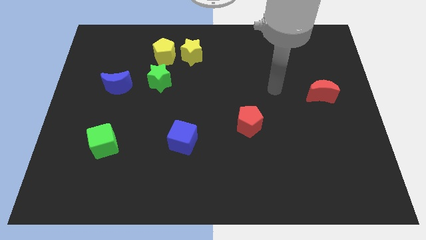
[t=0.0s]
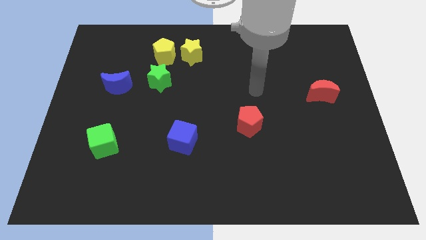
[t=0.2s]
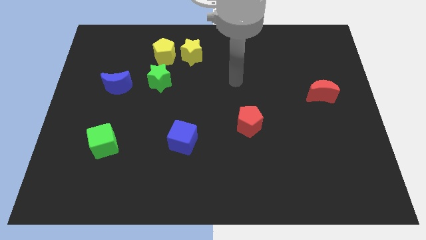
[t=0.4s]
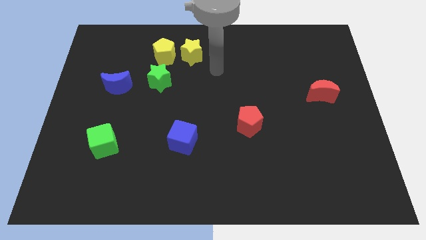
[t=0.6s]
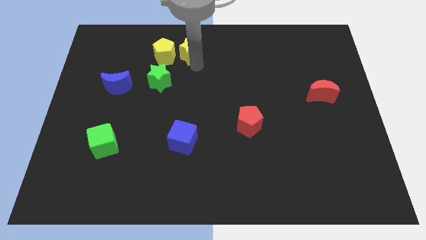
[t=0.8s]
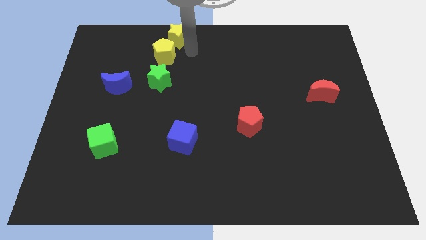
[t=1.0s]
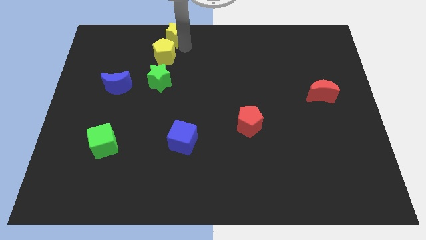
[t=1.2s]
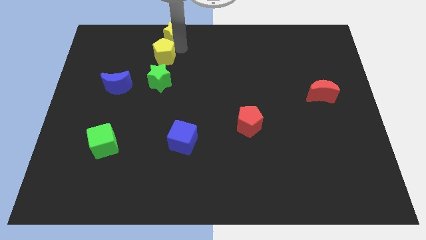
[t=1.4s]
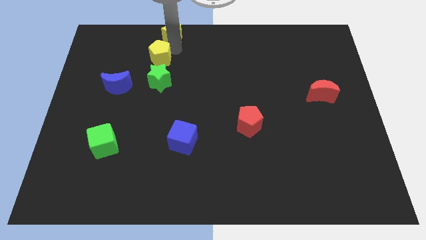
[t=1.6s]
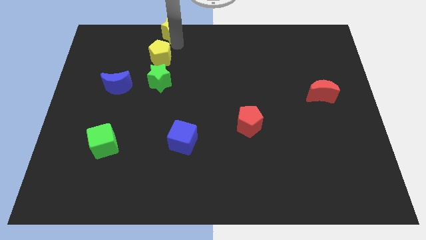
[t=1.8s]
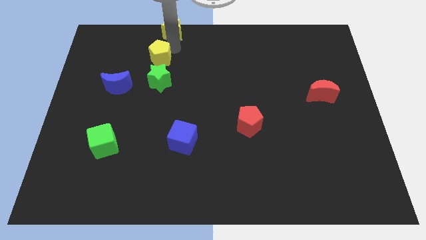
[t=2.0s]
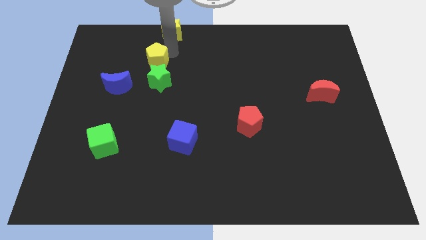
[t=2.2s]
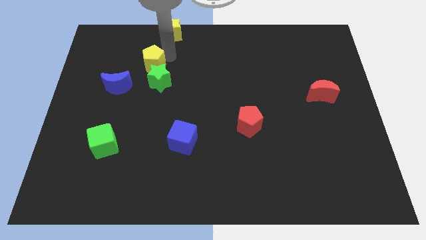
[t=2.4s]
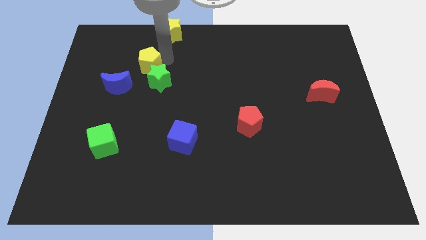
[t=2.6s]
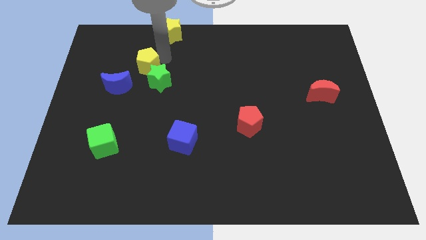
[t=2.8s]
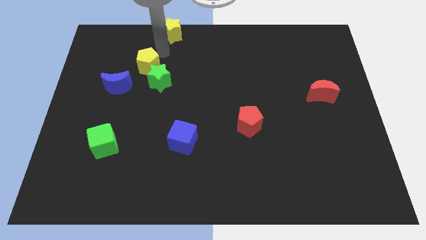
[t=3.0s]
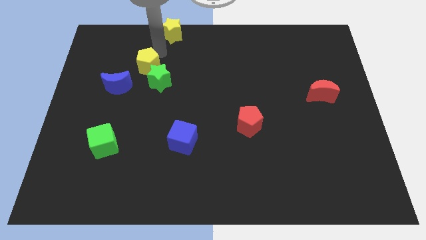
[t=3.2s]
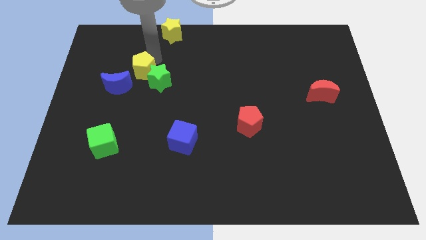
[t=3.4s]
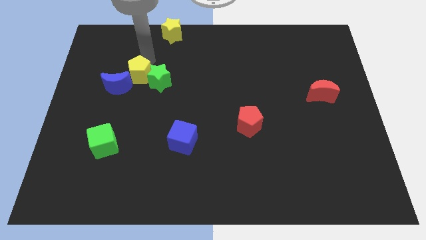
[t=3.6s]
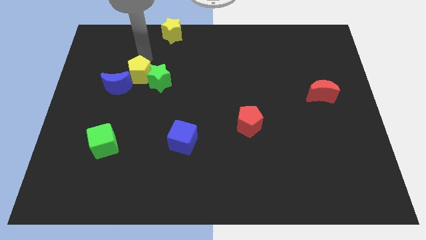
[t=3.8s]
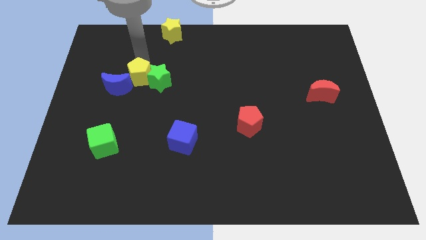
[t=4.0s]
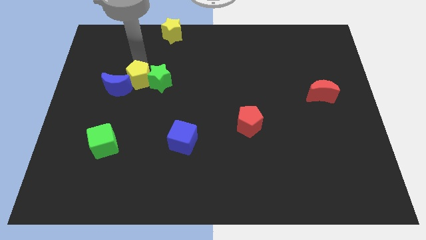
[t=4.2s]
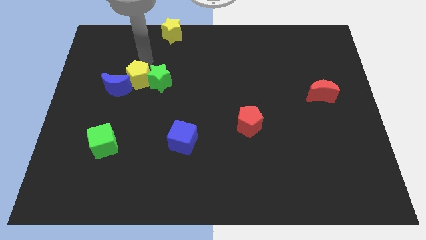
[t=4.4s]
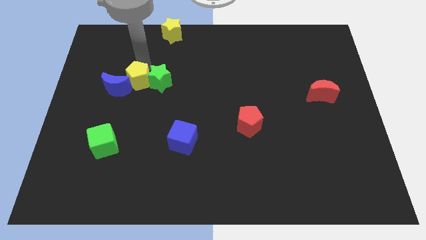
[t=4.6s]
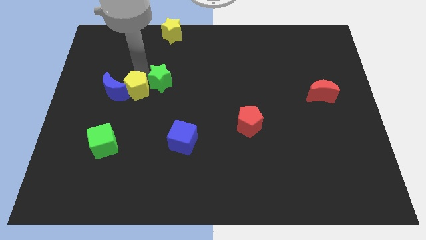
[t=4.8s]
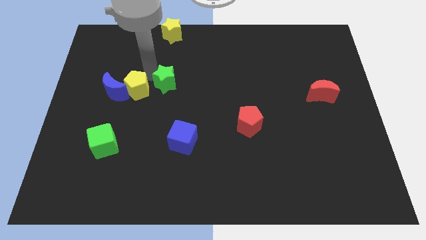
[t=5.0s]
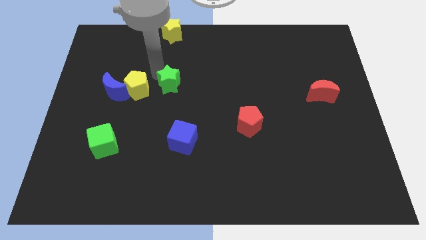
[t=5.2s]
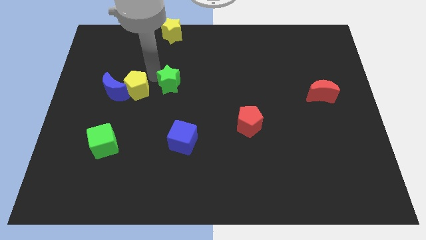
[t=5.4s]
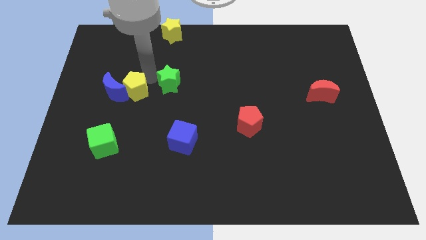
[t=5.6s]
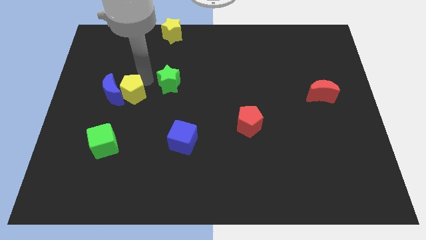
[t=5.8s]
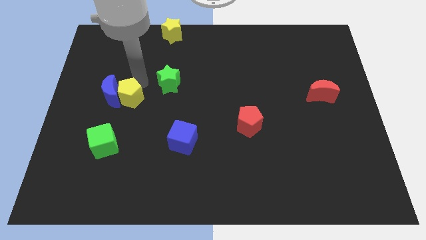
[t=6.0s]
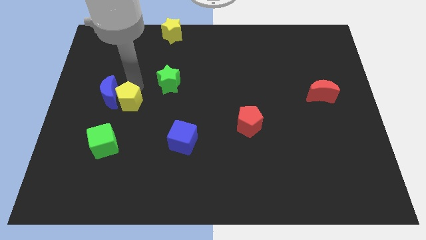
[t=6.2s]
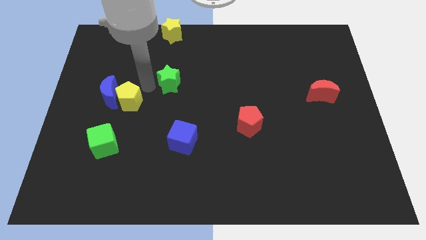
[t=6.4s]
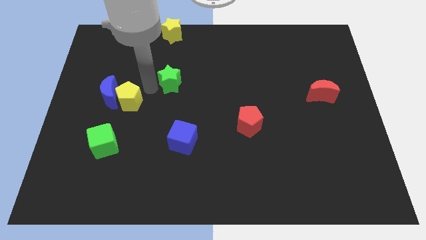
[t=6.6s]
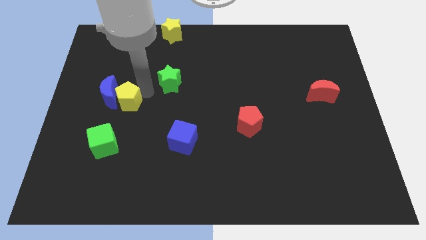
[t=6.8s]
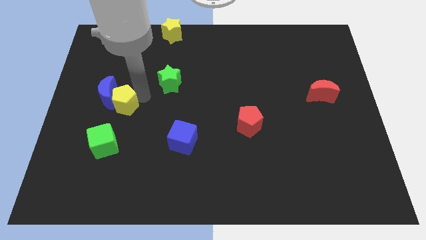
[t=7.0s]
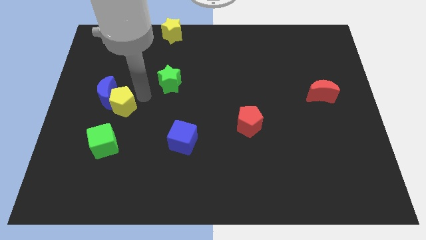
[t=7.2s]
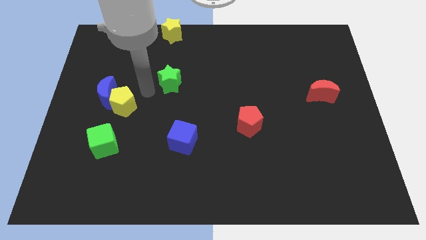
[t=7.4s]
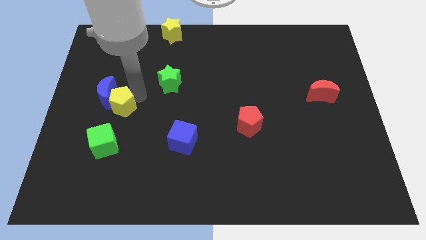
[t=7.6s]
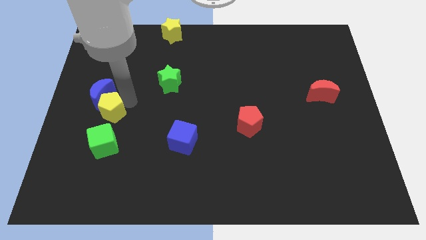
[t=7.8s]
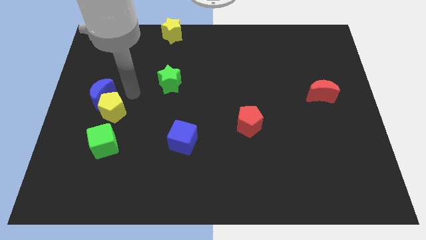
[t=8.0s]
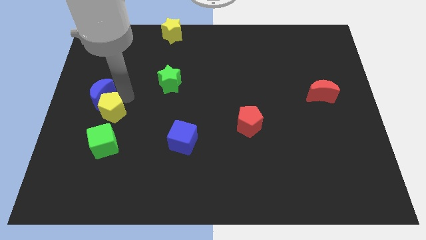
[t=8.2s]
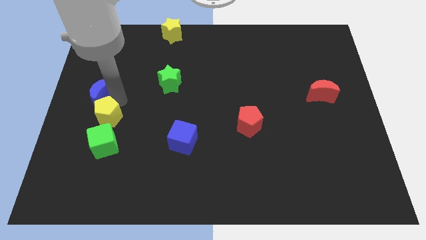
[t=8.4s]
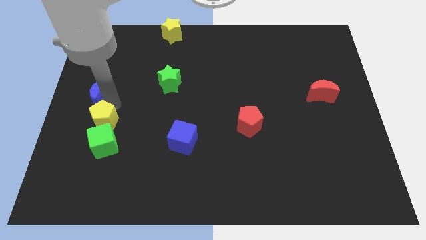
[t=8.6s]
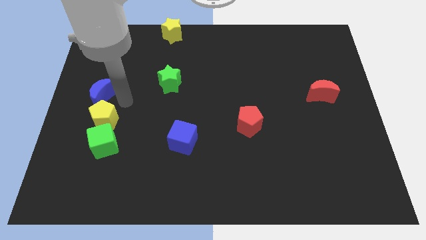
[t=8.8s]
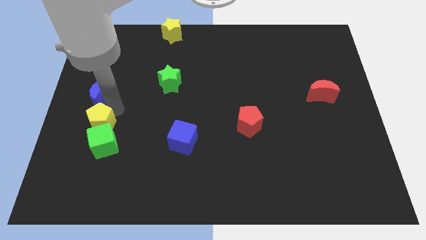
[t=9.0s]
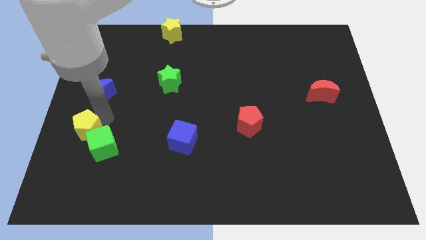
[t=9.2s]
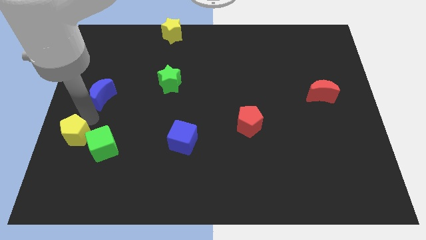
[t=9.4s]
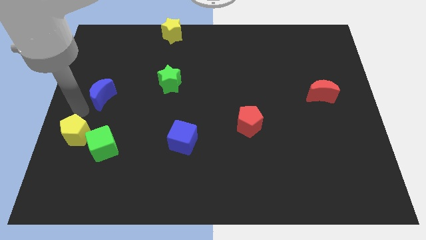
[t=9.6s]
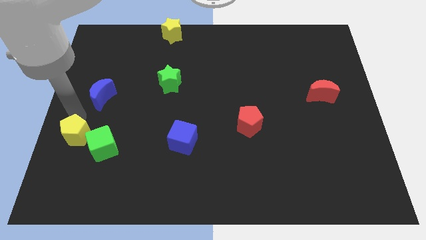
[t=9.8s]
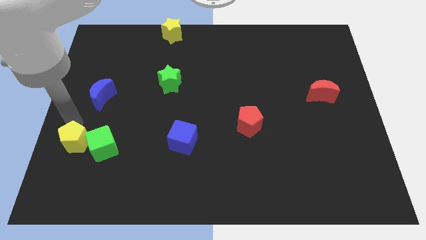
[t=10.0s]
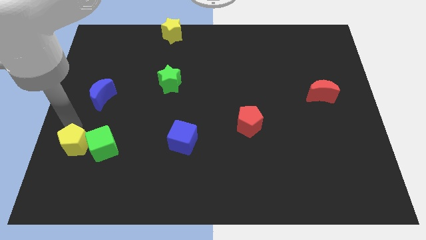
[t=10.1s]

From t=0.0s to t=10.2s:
slide the yellow pentagon to the bottom left side of the green cube

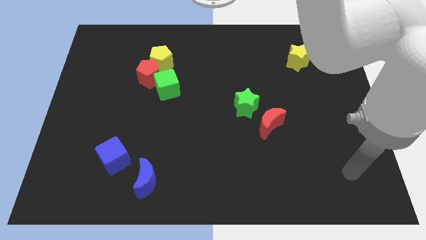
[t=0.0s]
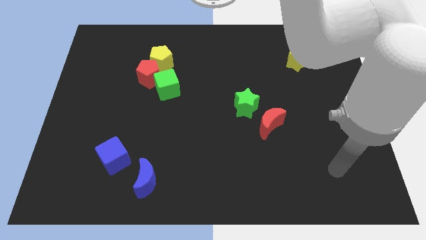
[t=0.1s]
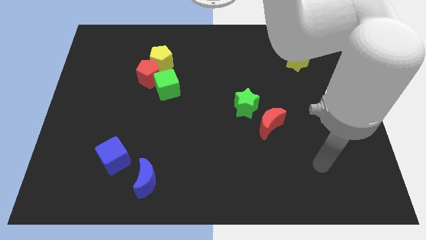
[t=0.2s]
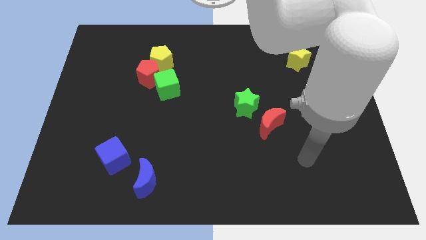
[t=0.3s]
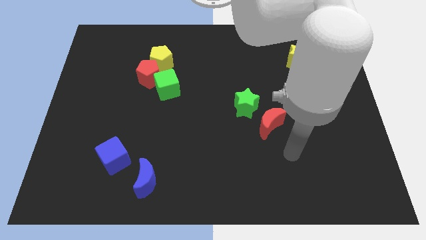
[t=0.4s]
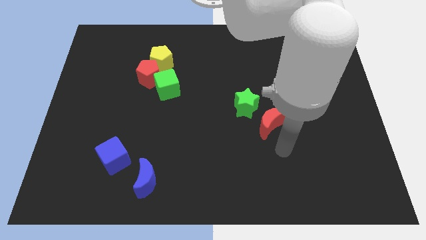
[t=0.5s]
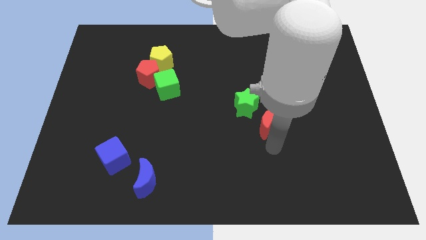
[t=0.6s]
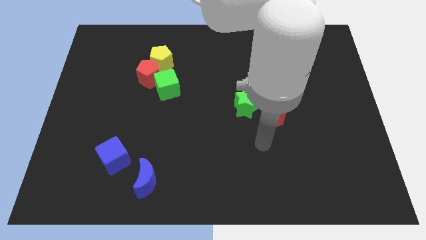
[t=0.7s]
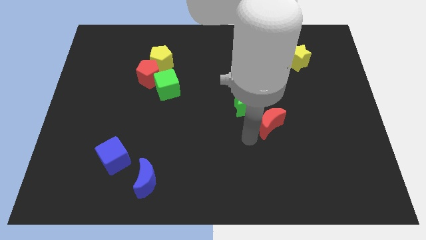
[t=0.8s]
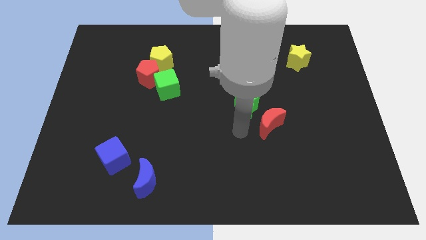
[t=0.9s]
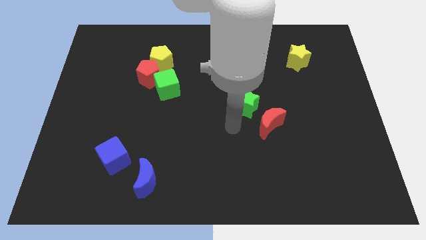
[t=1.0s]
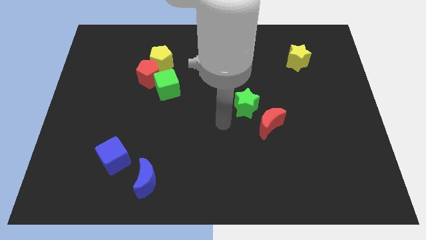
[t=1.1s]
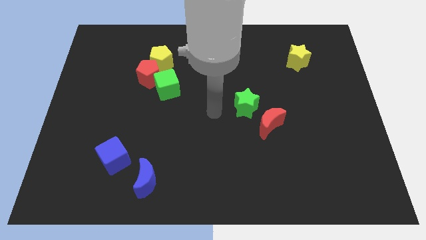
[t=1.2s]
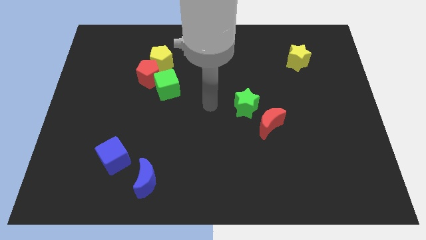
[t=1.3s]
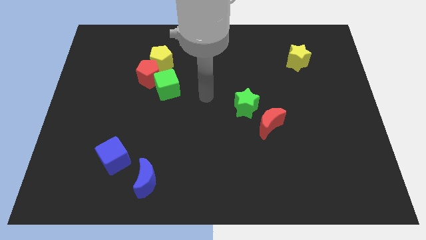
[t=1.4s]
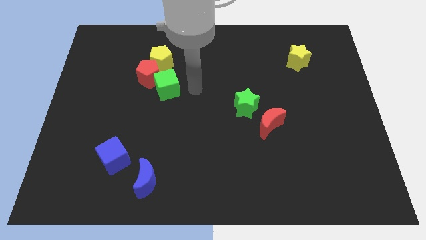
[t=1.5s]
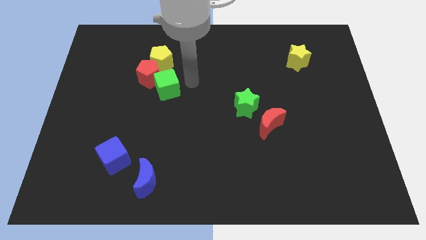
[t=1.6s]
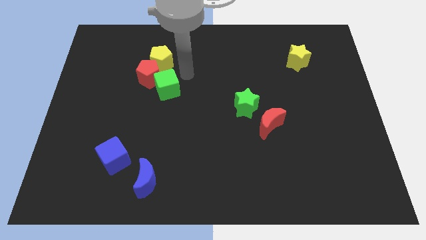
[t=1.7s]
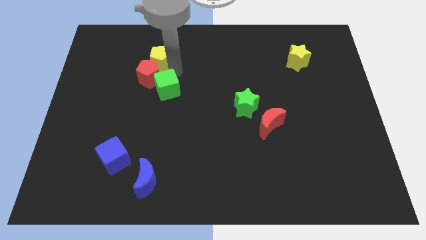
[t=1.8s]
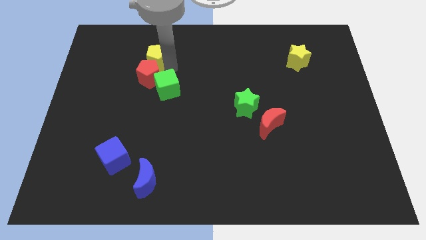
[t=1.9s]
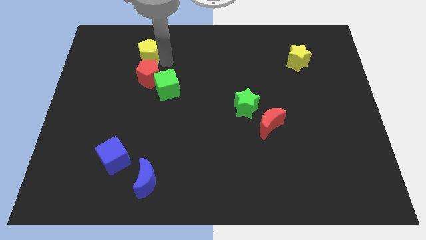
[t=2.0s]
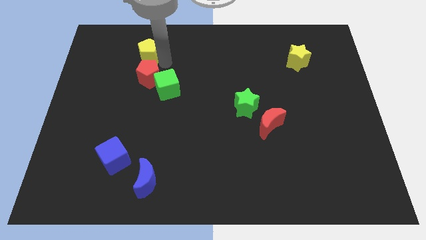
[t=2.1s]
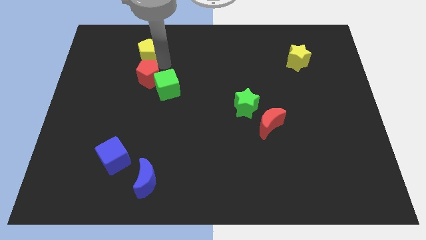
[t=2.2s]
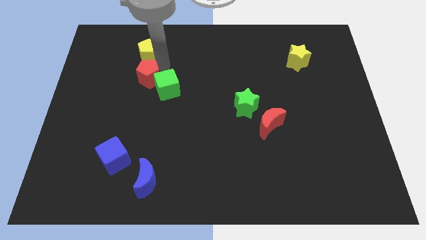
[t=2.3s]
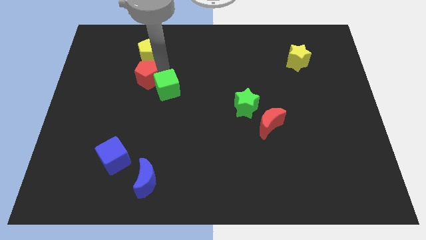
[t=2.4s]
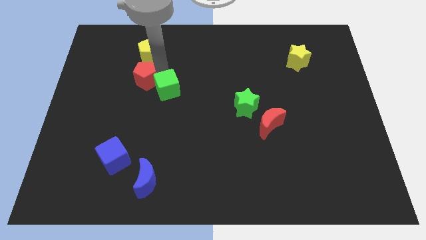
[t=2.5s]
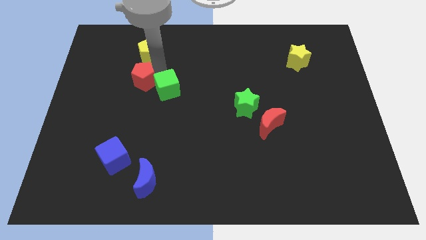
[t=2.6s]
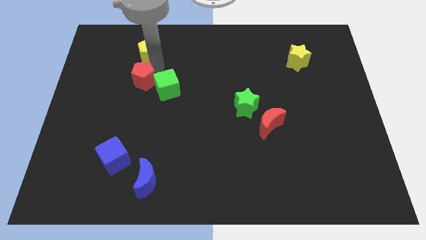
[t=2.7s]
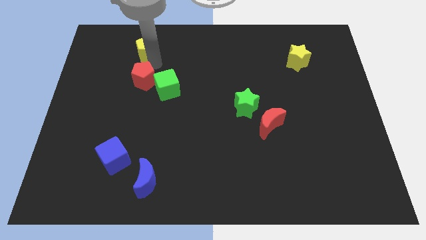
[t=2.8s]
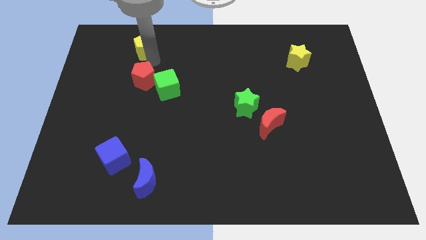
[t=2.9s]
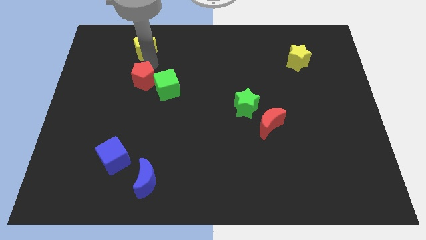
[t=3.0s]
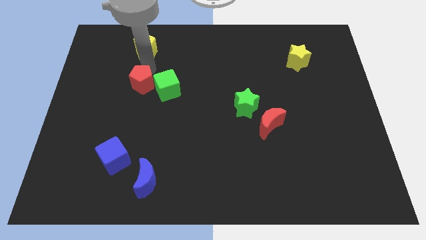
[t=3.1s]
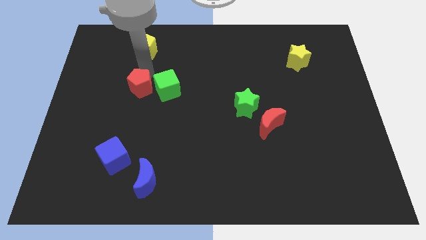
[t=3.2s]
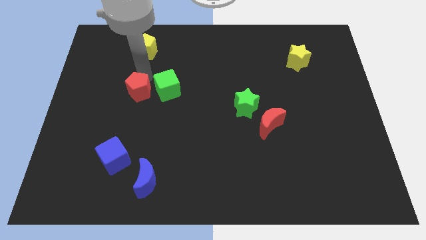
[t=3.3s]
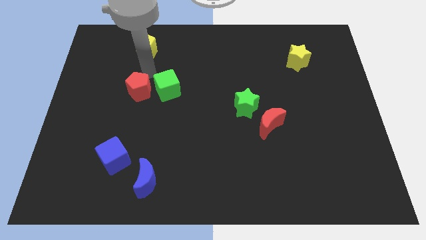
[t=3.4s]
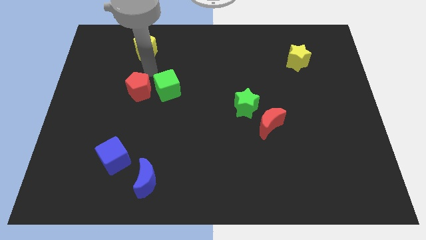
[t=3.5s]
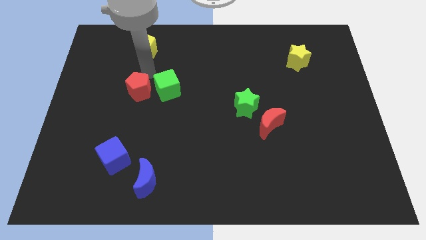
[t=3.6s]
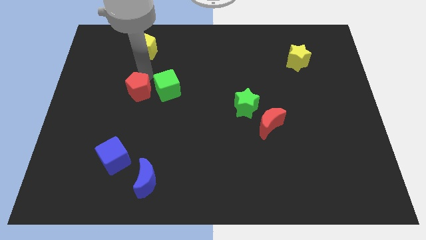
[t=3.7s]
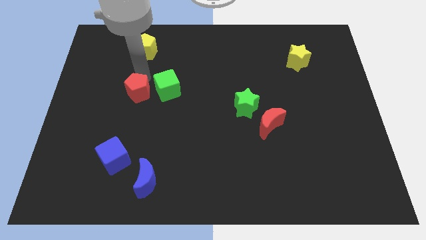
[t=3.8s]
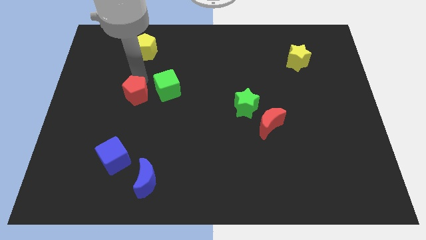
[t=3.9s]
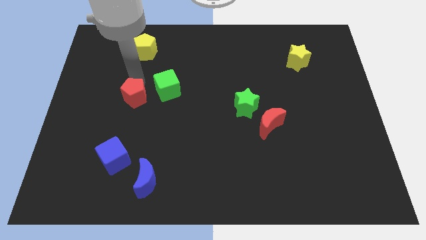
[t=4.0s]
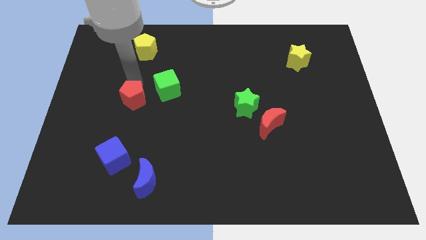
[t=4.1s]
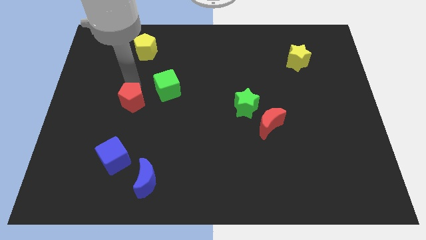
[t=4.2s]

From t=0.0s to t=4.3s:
move the red pentagon above the blue cube
